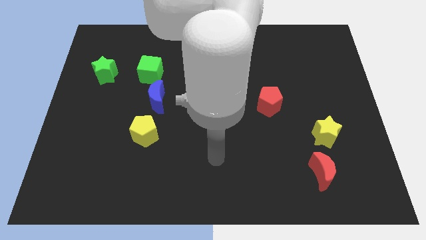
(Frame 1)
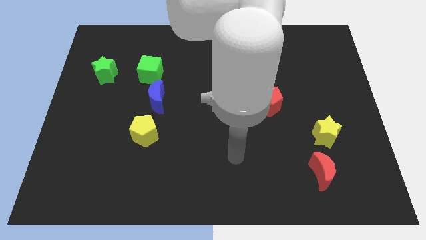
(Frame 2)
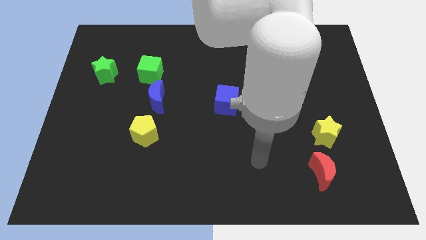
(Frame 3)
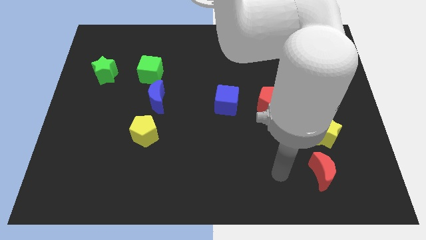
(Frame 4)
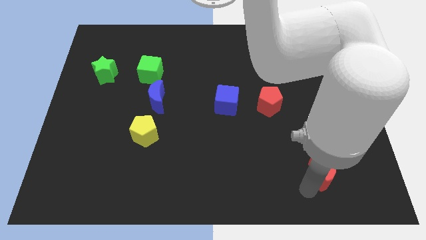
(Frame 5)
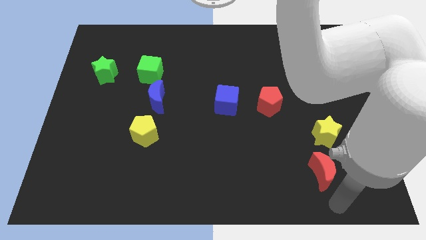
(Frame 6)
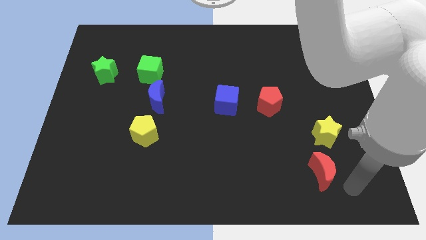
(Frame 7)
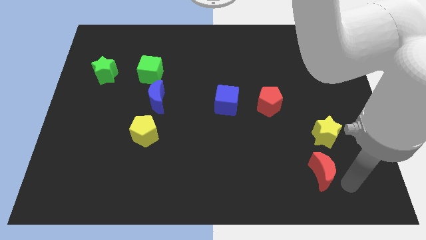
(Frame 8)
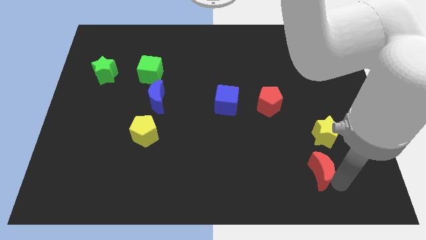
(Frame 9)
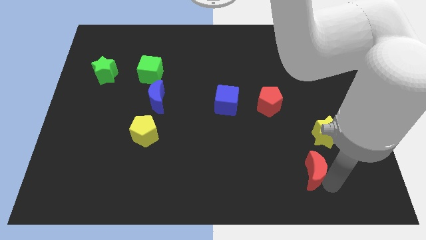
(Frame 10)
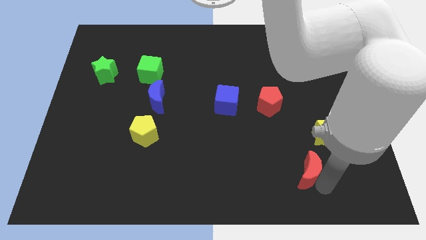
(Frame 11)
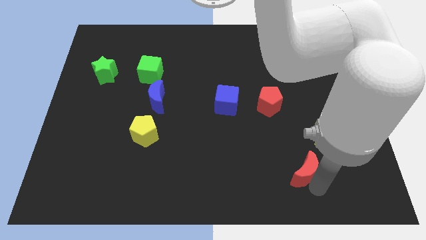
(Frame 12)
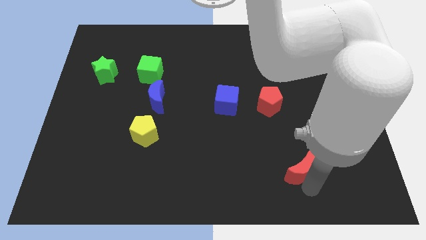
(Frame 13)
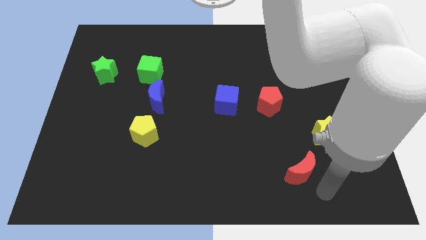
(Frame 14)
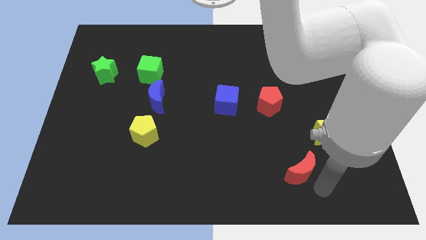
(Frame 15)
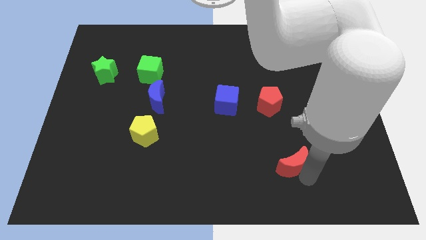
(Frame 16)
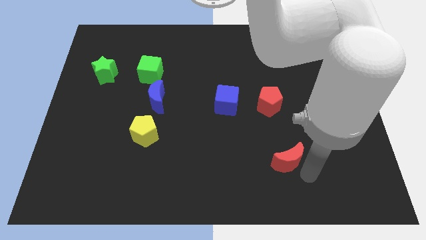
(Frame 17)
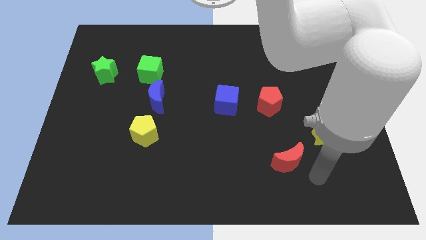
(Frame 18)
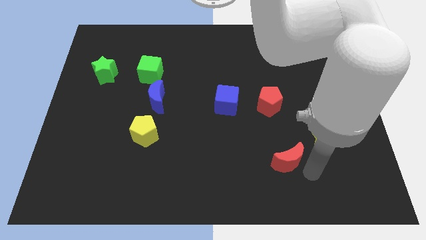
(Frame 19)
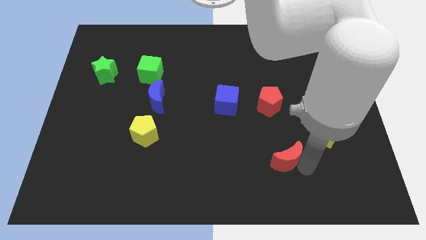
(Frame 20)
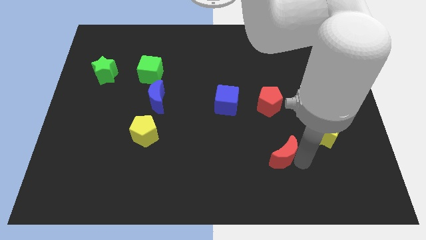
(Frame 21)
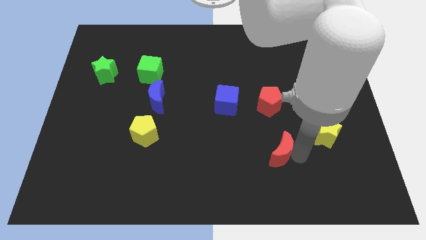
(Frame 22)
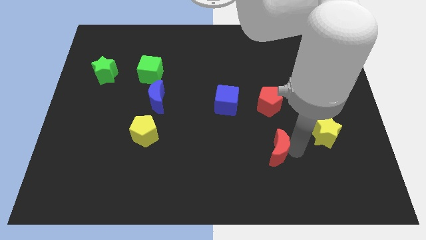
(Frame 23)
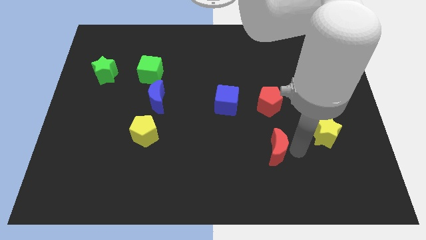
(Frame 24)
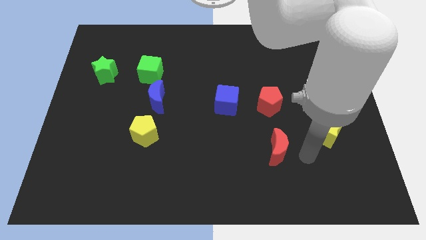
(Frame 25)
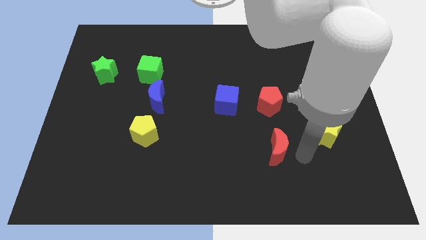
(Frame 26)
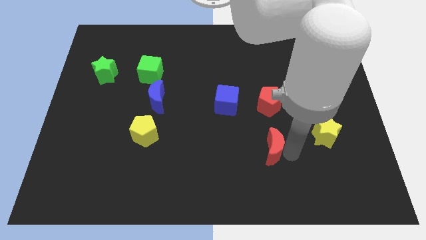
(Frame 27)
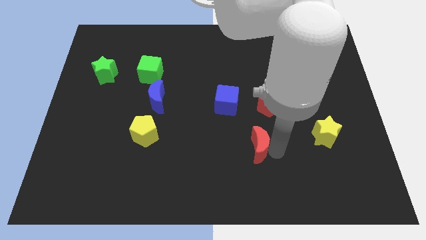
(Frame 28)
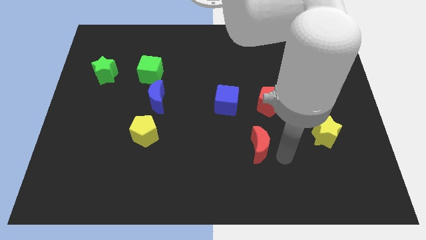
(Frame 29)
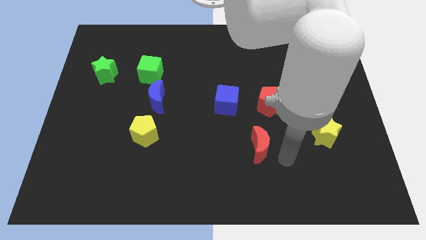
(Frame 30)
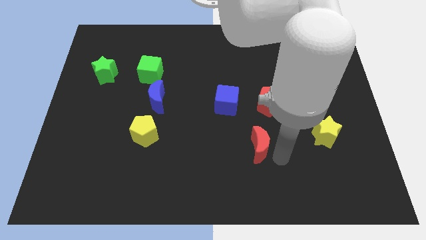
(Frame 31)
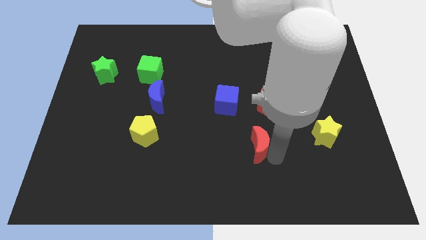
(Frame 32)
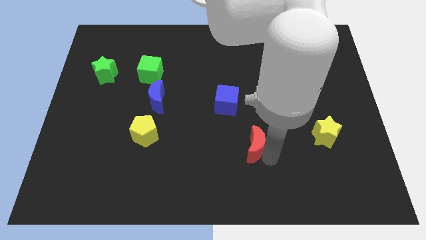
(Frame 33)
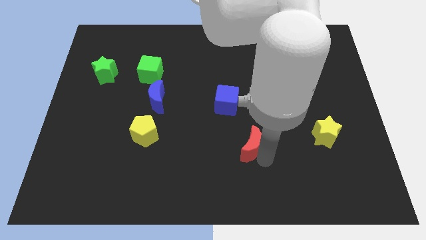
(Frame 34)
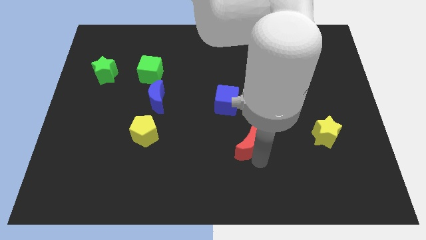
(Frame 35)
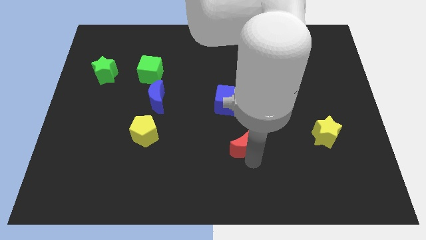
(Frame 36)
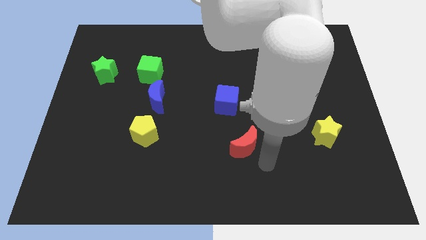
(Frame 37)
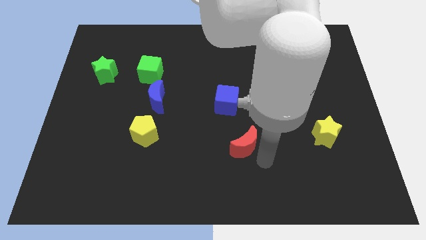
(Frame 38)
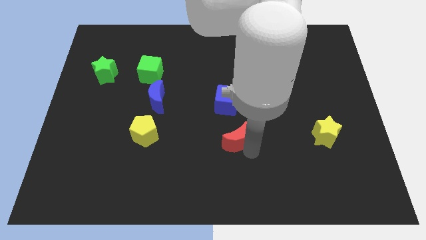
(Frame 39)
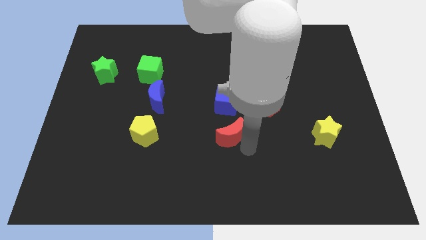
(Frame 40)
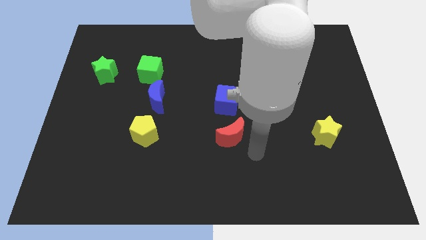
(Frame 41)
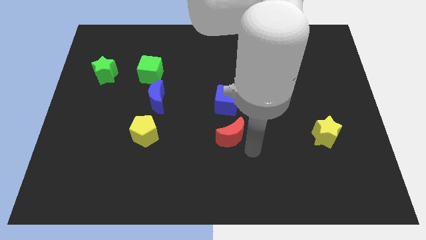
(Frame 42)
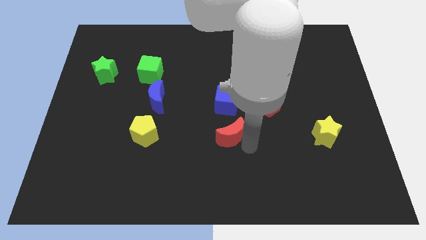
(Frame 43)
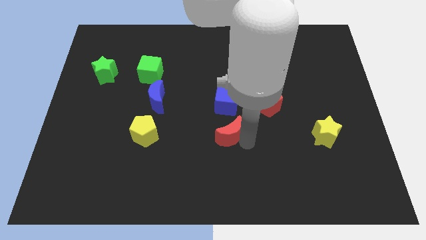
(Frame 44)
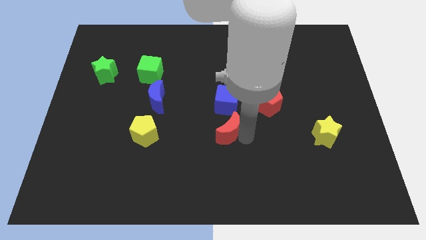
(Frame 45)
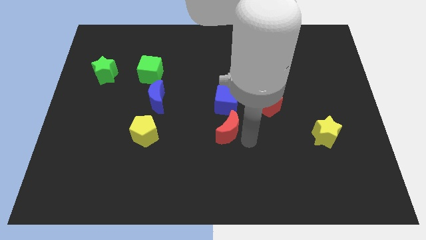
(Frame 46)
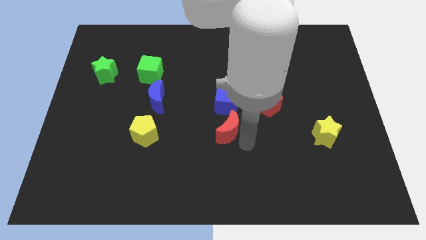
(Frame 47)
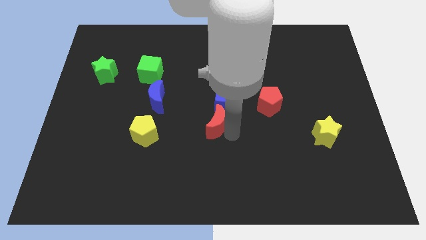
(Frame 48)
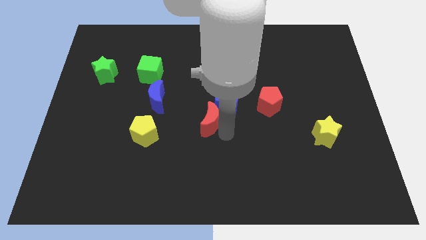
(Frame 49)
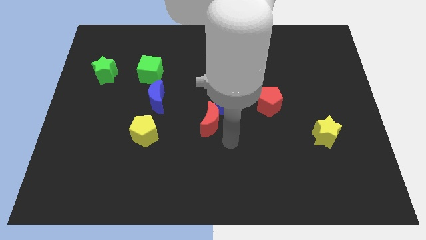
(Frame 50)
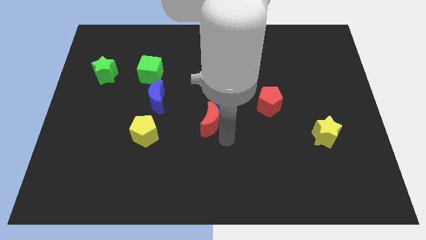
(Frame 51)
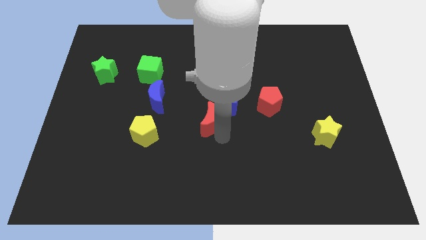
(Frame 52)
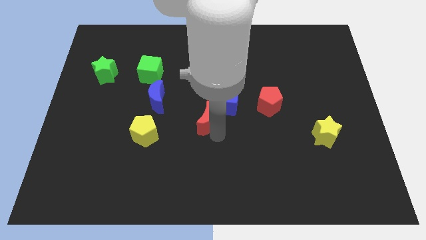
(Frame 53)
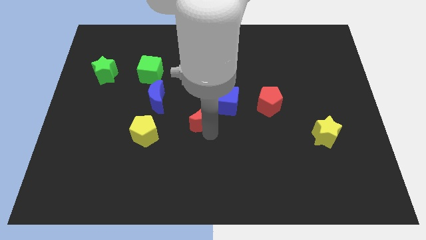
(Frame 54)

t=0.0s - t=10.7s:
move the red moon to the left side of the blue cube

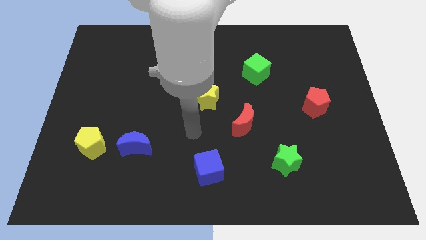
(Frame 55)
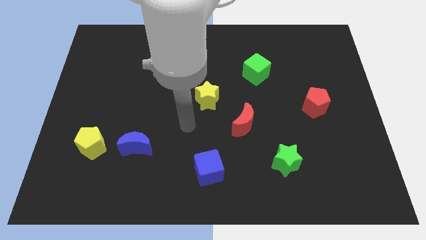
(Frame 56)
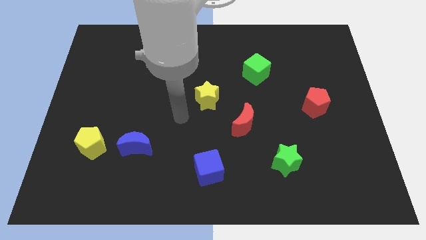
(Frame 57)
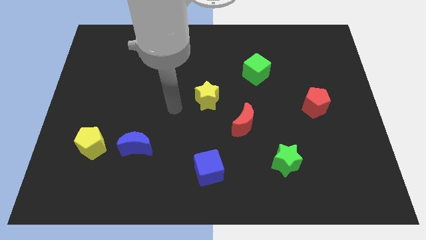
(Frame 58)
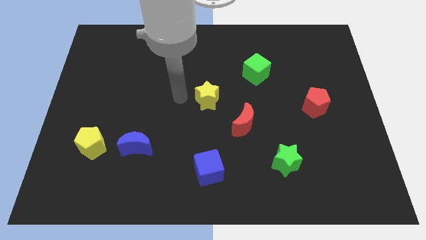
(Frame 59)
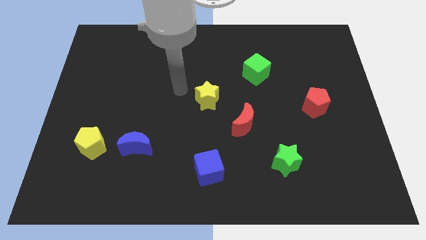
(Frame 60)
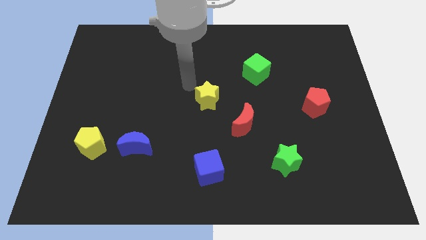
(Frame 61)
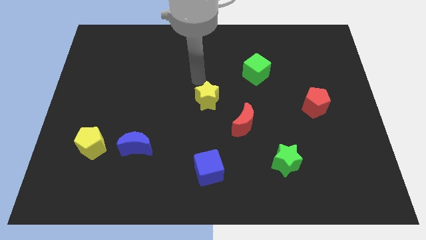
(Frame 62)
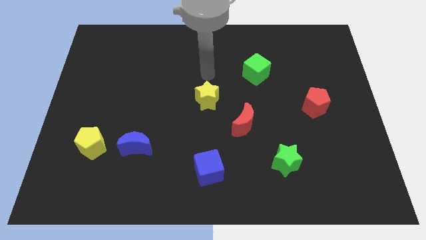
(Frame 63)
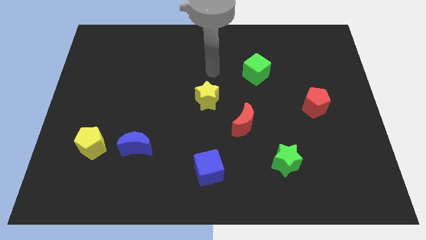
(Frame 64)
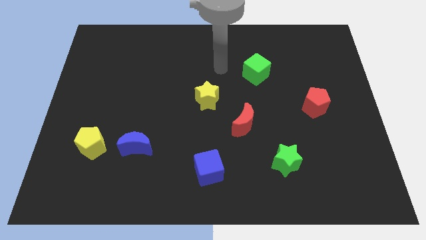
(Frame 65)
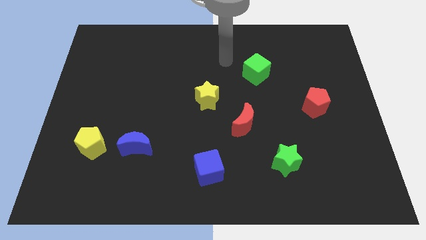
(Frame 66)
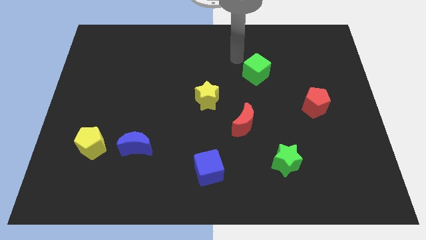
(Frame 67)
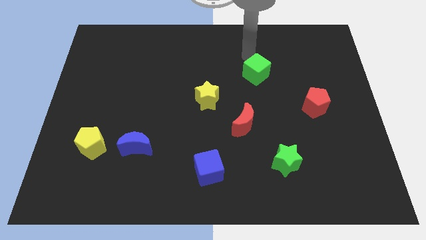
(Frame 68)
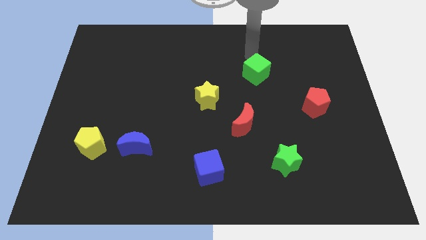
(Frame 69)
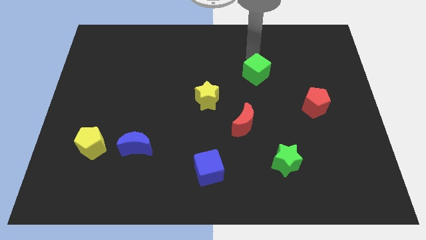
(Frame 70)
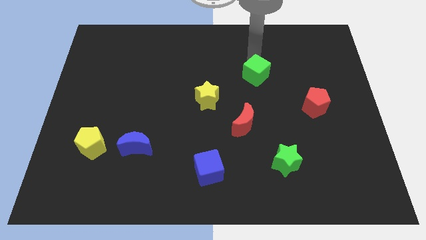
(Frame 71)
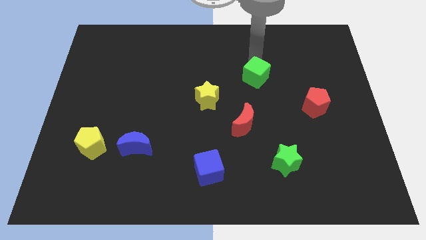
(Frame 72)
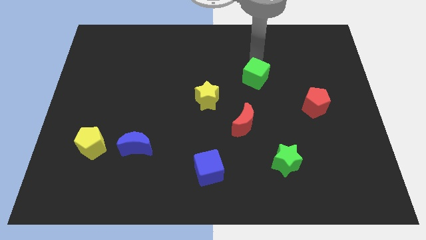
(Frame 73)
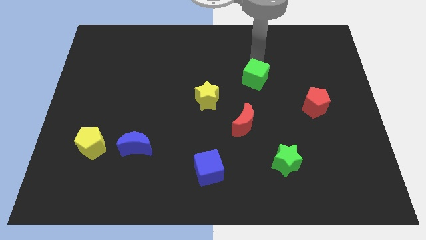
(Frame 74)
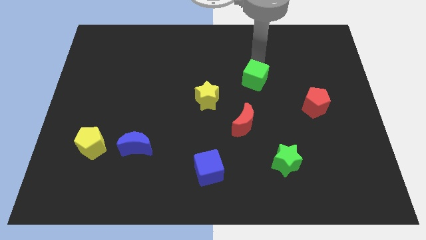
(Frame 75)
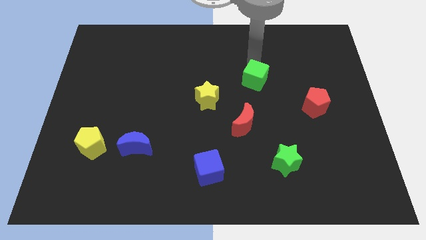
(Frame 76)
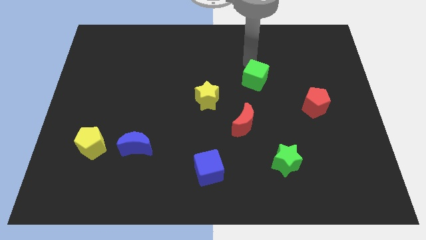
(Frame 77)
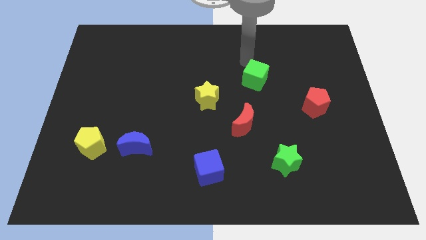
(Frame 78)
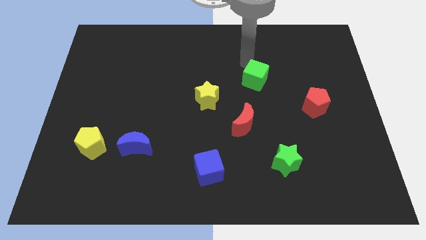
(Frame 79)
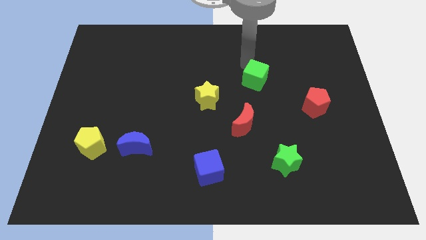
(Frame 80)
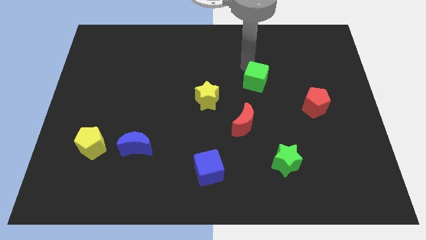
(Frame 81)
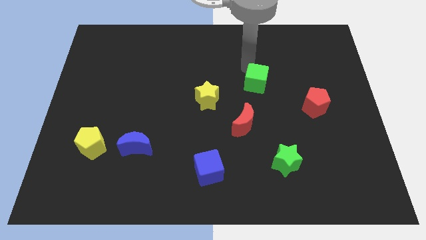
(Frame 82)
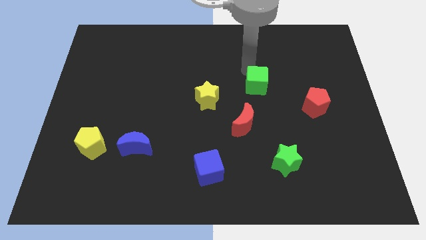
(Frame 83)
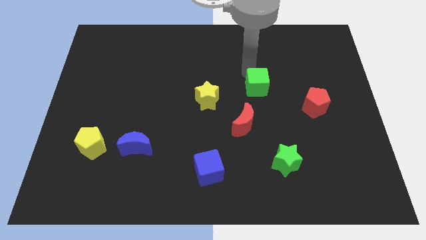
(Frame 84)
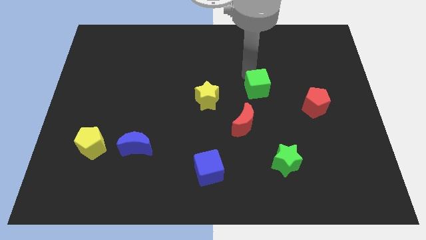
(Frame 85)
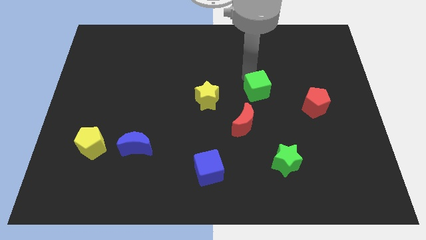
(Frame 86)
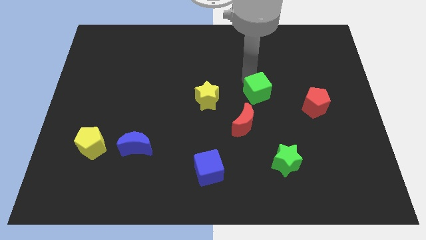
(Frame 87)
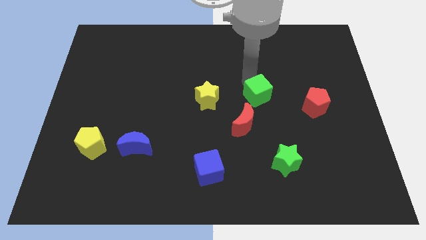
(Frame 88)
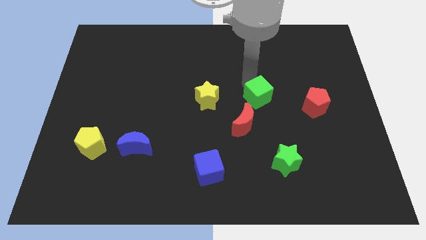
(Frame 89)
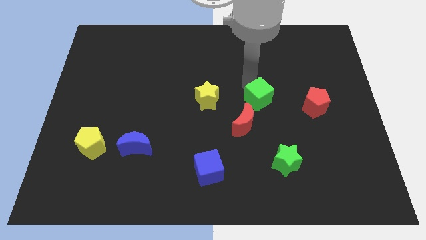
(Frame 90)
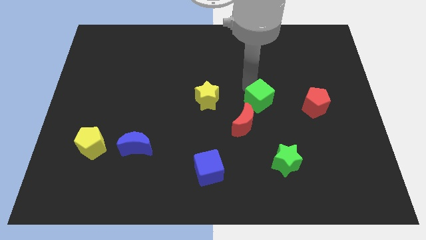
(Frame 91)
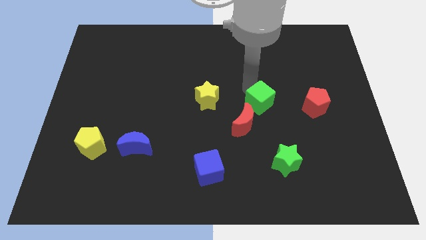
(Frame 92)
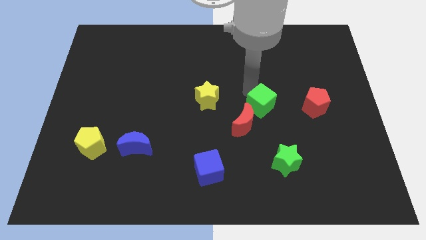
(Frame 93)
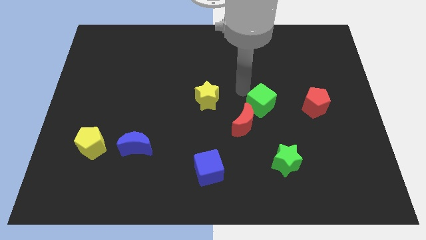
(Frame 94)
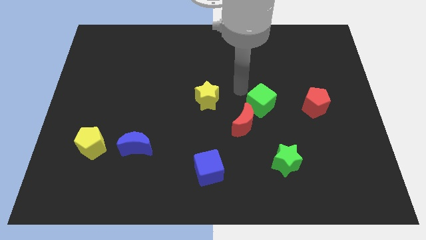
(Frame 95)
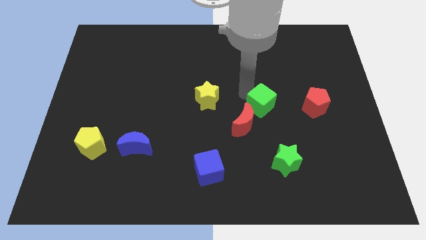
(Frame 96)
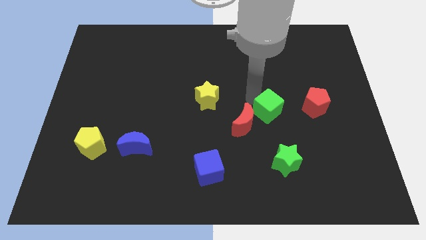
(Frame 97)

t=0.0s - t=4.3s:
push the green cube just right of the red moon
